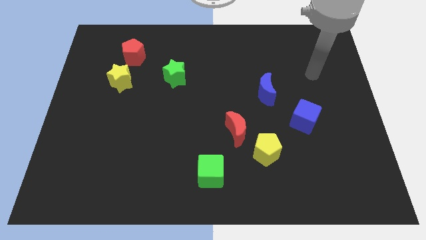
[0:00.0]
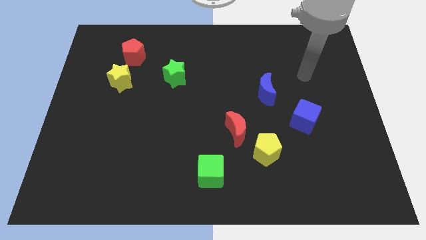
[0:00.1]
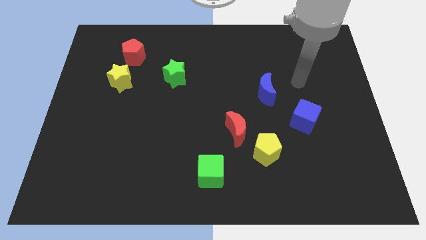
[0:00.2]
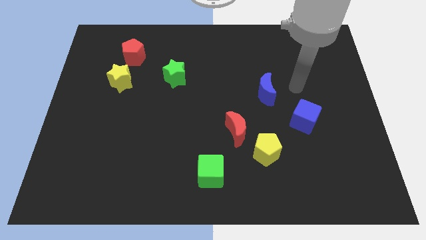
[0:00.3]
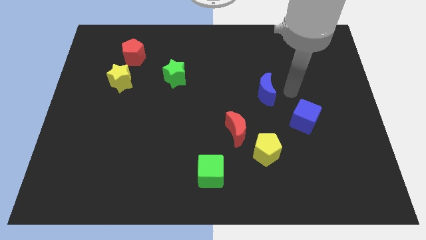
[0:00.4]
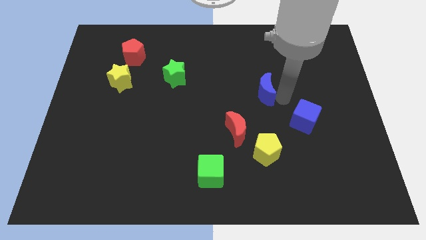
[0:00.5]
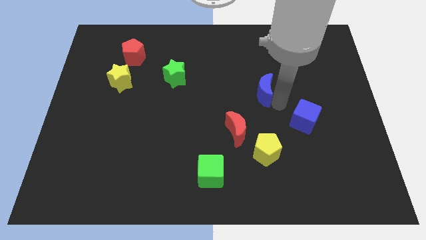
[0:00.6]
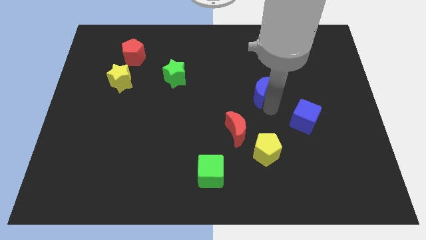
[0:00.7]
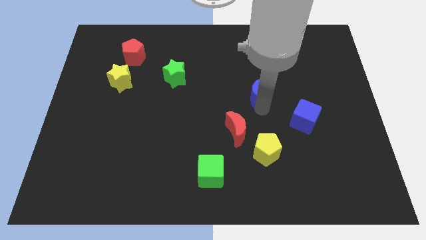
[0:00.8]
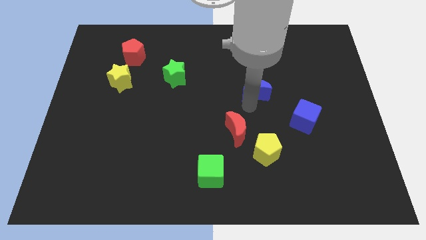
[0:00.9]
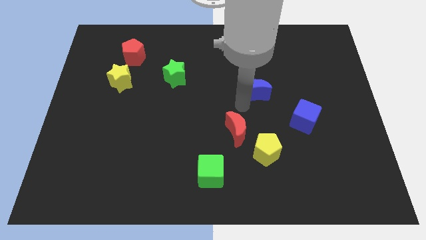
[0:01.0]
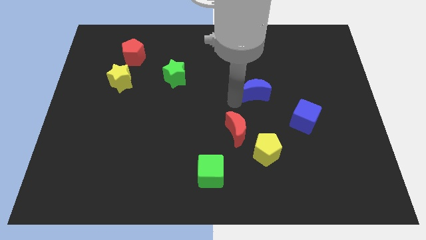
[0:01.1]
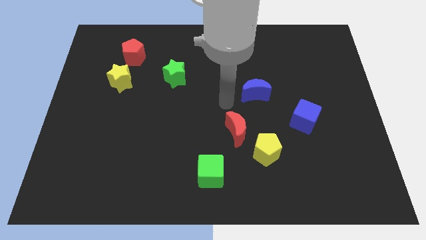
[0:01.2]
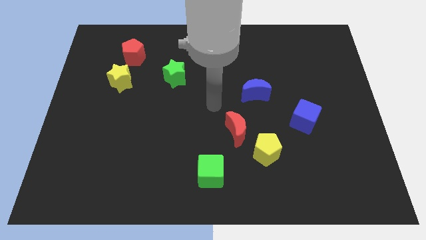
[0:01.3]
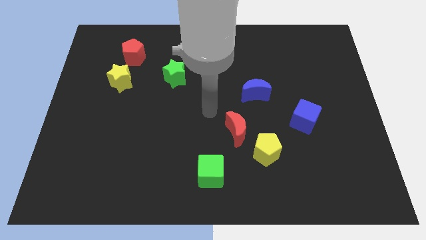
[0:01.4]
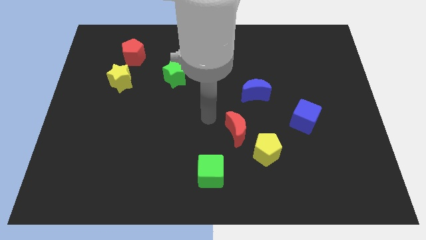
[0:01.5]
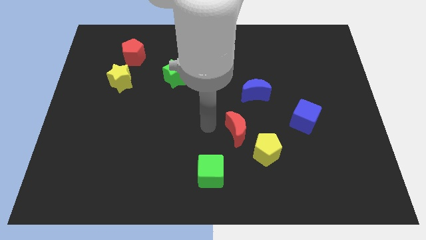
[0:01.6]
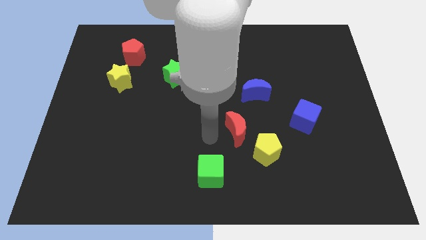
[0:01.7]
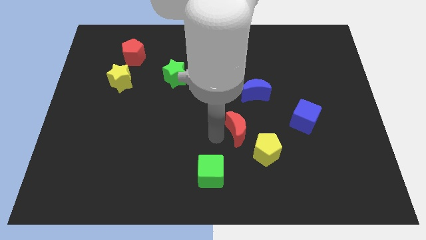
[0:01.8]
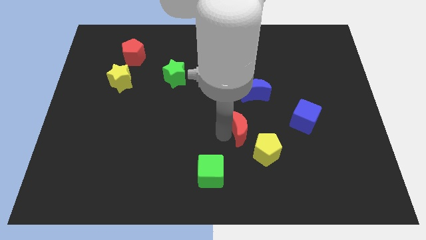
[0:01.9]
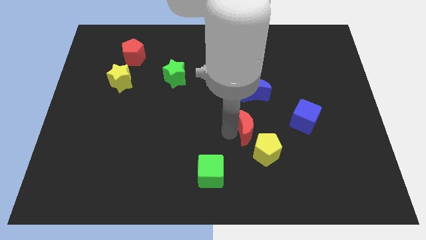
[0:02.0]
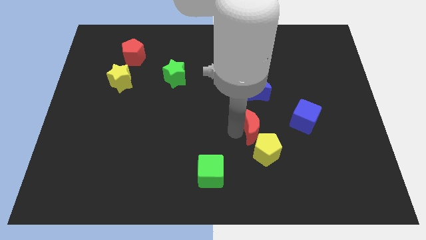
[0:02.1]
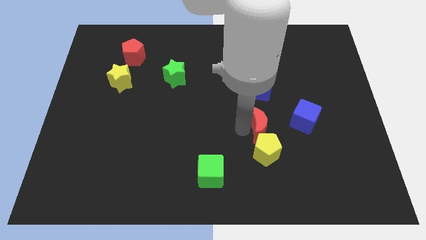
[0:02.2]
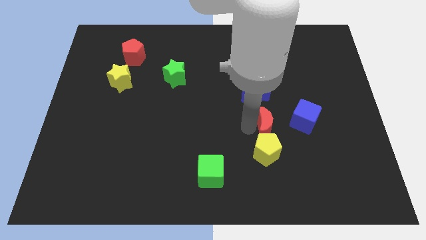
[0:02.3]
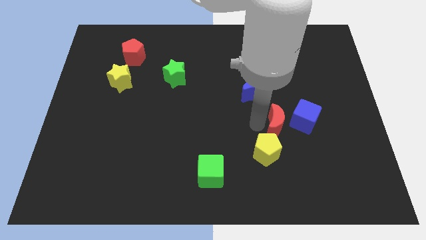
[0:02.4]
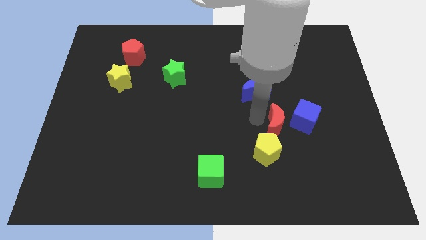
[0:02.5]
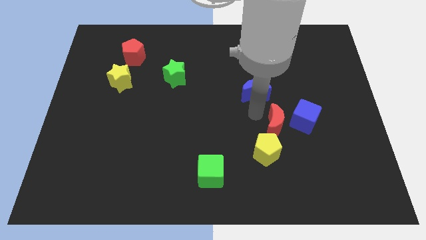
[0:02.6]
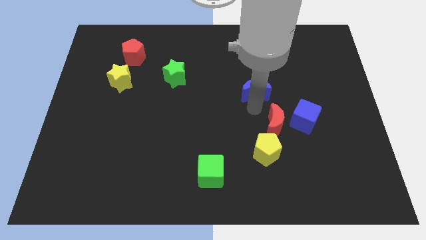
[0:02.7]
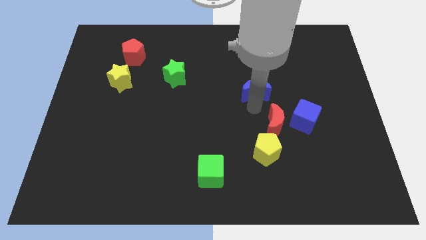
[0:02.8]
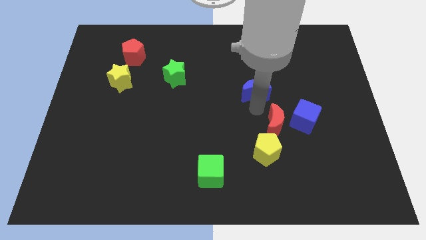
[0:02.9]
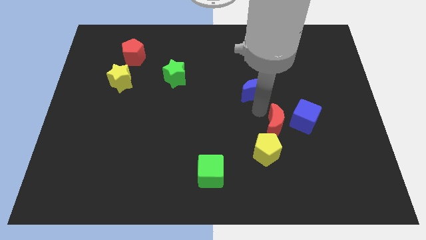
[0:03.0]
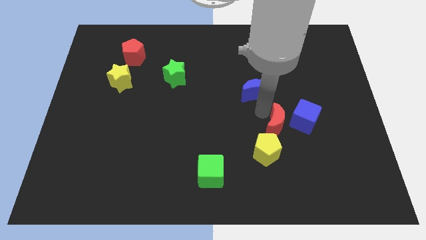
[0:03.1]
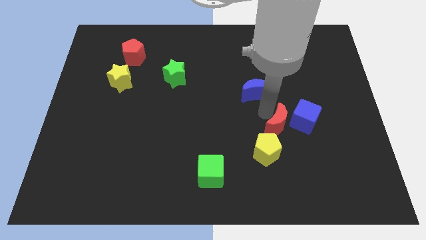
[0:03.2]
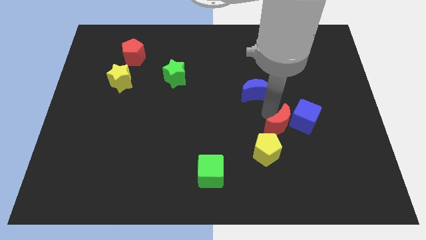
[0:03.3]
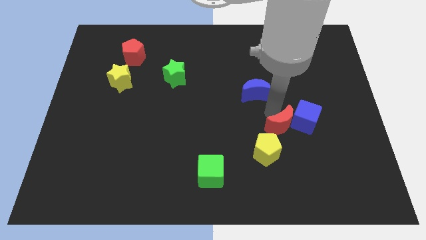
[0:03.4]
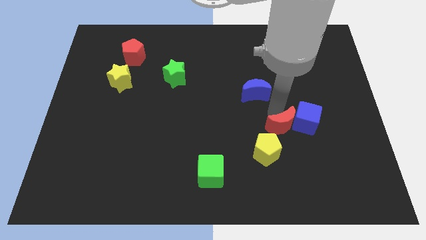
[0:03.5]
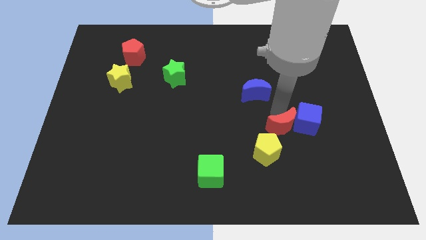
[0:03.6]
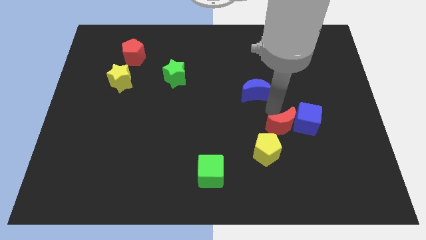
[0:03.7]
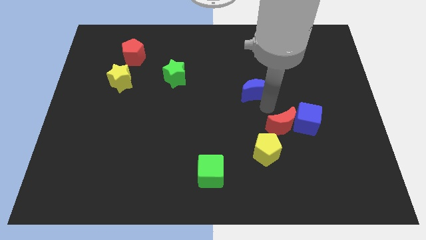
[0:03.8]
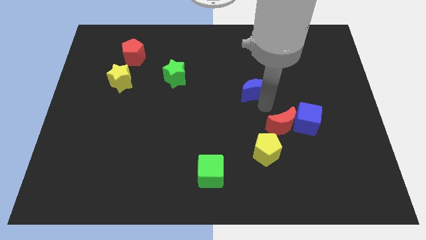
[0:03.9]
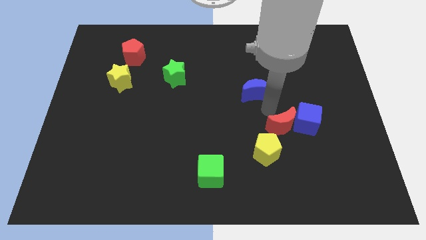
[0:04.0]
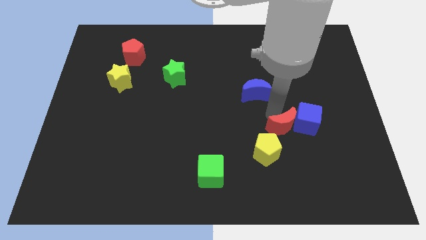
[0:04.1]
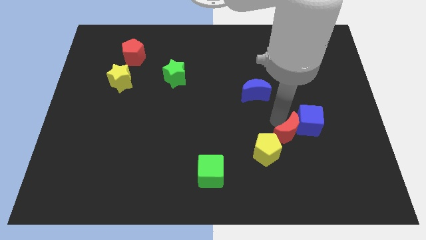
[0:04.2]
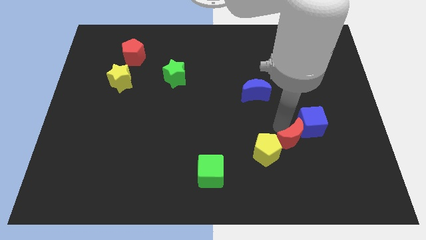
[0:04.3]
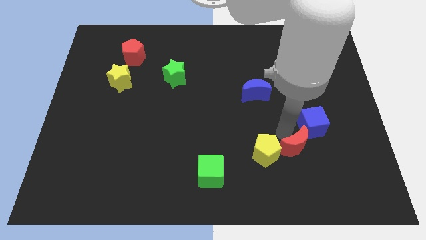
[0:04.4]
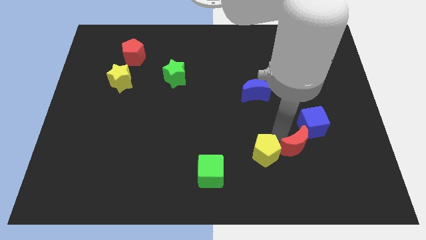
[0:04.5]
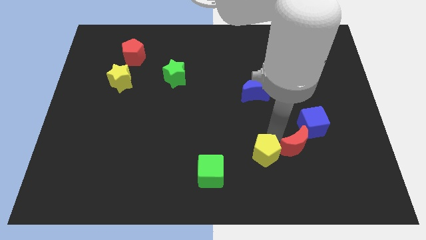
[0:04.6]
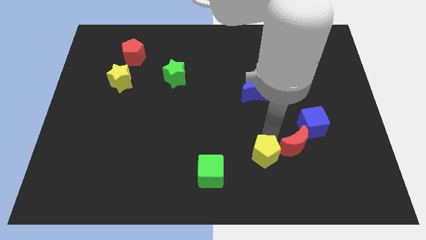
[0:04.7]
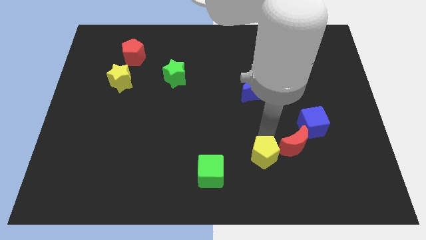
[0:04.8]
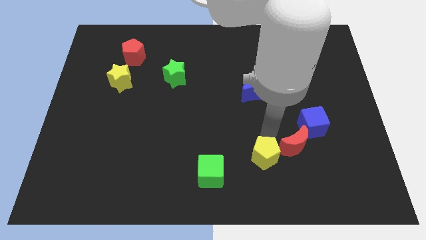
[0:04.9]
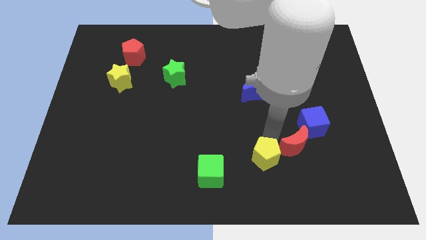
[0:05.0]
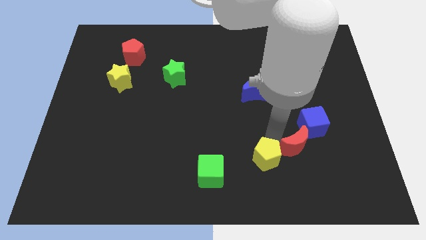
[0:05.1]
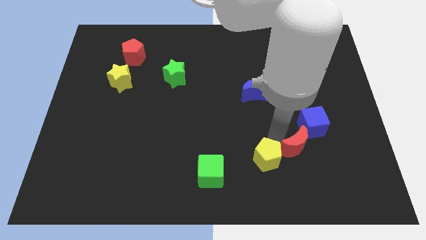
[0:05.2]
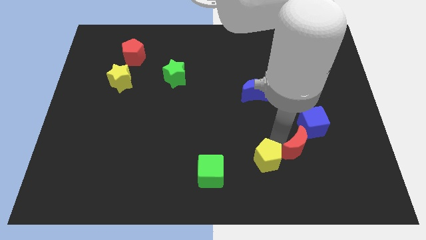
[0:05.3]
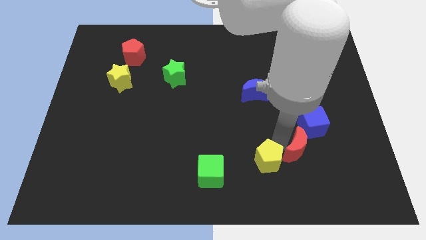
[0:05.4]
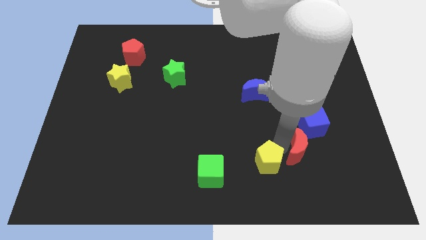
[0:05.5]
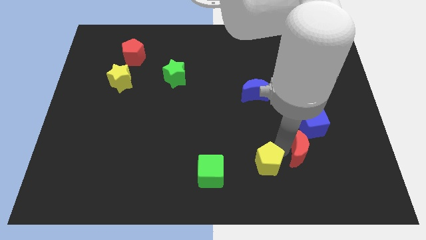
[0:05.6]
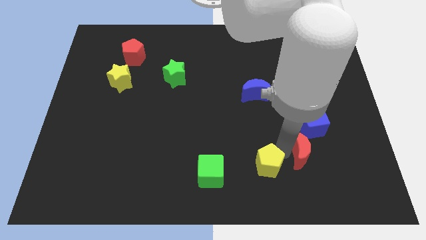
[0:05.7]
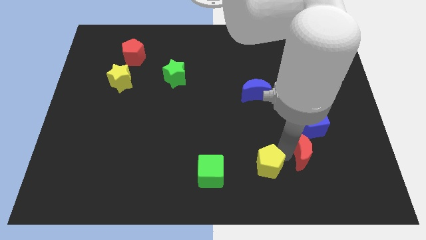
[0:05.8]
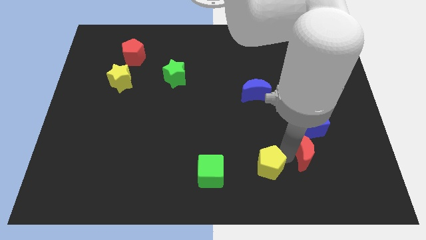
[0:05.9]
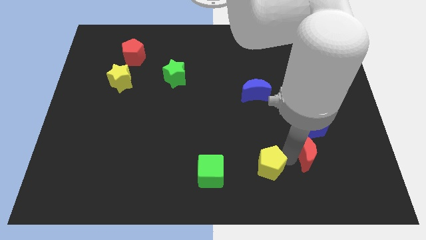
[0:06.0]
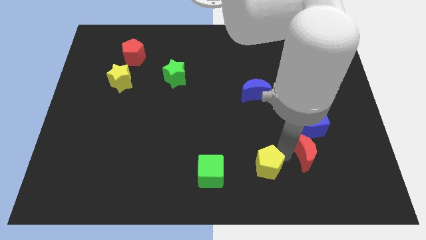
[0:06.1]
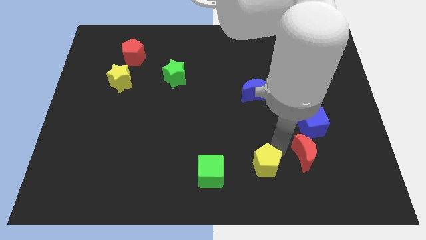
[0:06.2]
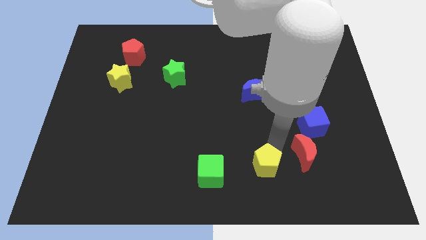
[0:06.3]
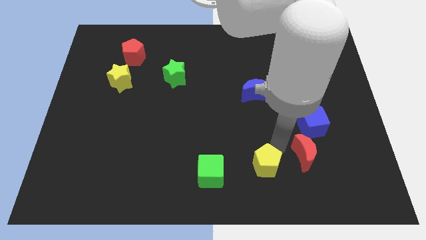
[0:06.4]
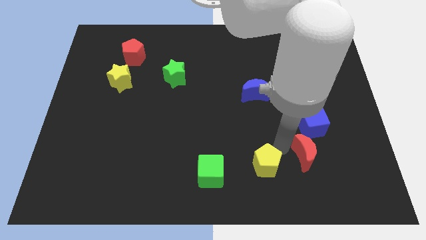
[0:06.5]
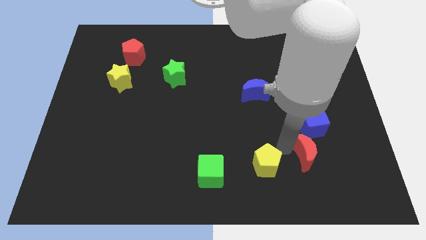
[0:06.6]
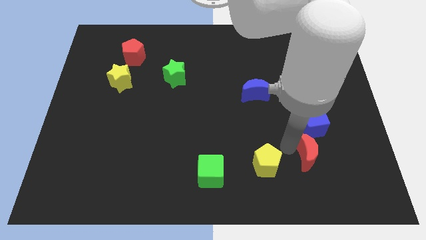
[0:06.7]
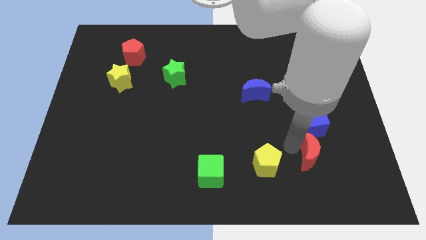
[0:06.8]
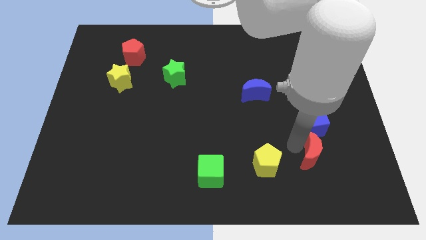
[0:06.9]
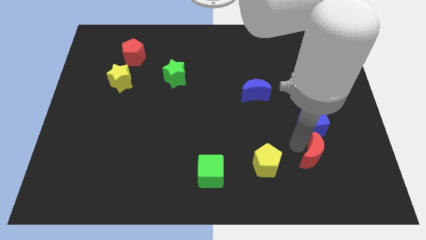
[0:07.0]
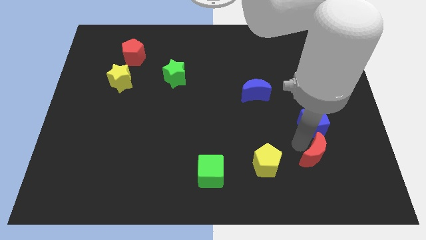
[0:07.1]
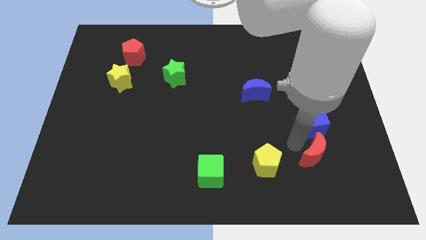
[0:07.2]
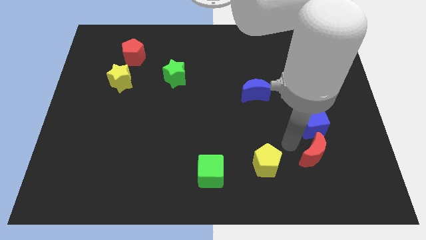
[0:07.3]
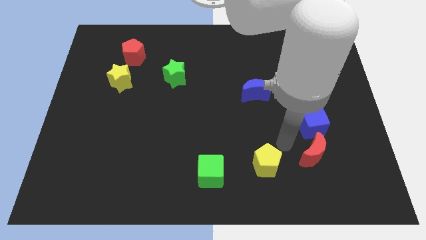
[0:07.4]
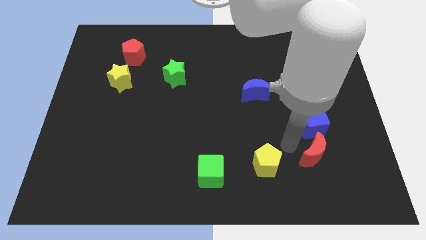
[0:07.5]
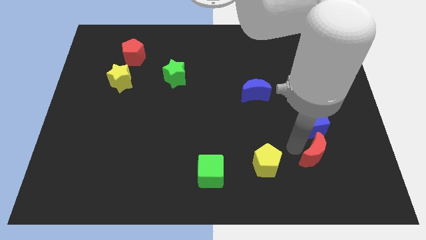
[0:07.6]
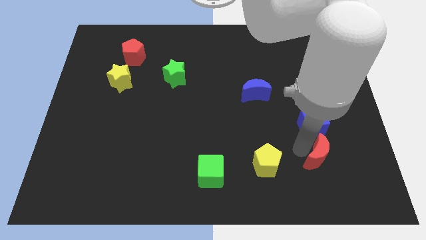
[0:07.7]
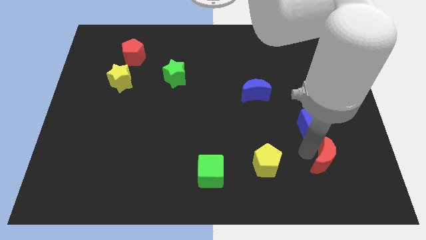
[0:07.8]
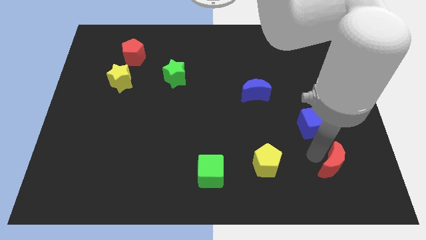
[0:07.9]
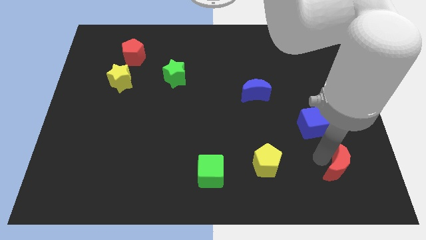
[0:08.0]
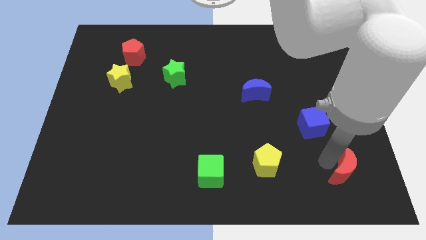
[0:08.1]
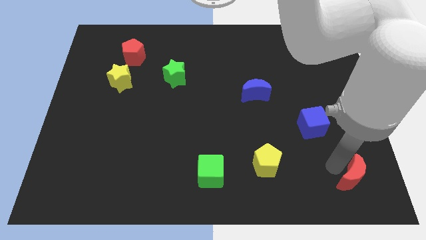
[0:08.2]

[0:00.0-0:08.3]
move the red moon to the bottom right
